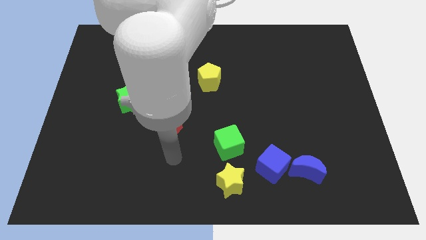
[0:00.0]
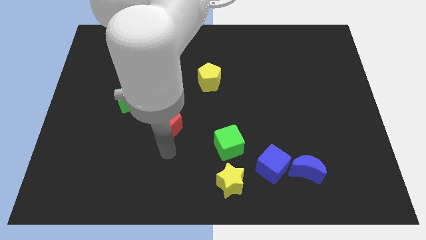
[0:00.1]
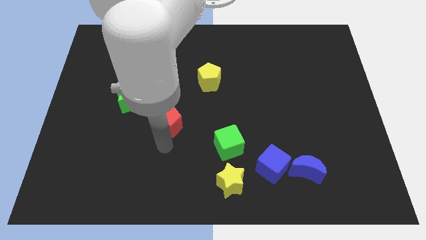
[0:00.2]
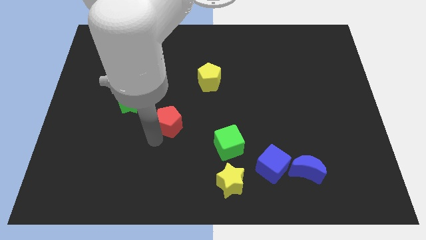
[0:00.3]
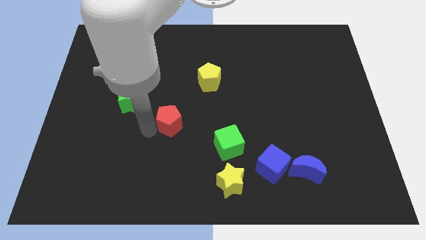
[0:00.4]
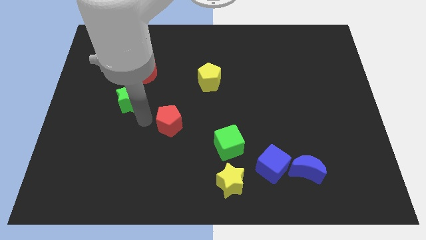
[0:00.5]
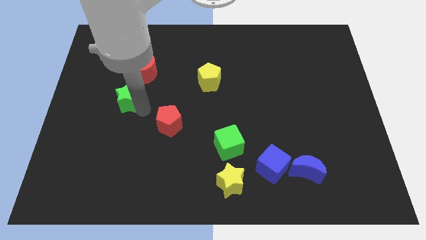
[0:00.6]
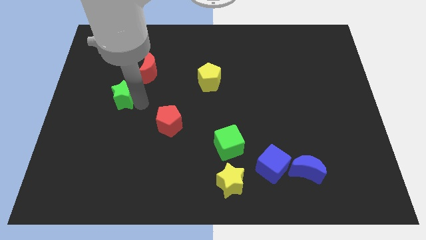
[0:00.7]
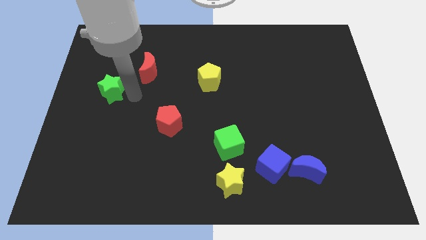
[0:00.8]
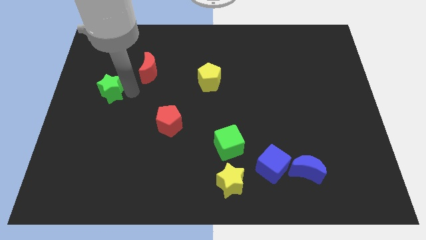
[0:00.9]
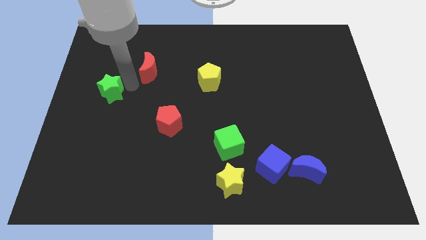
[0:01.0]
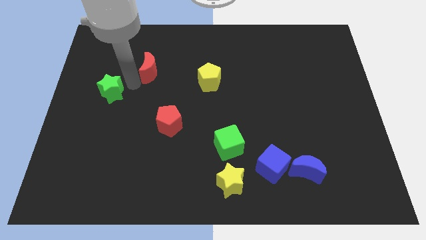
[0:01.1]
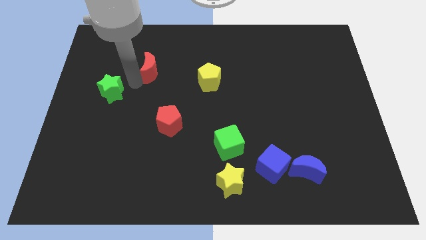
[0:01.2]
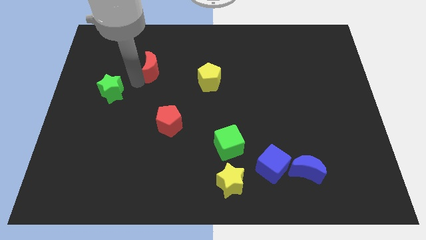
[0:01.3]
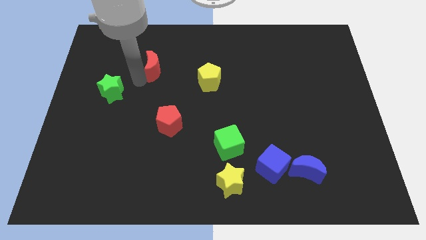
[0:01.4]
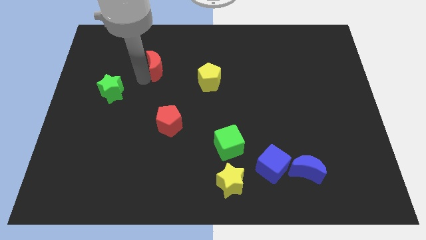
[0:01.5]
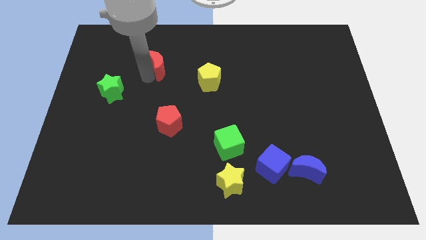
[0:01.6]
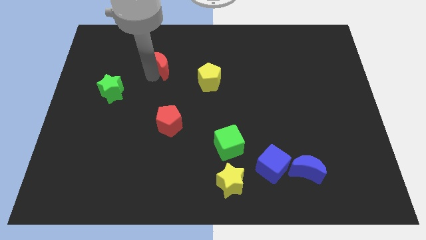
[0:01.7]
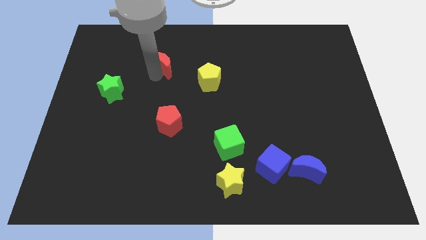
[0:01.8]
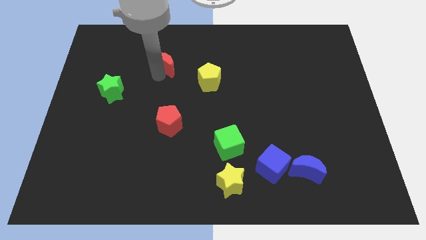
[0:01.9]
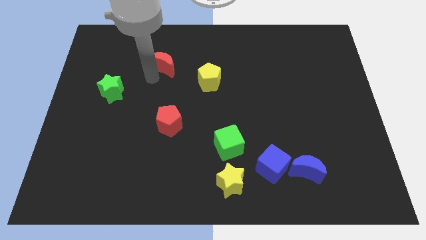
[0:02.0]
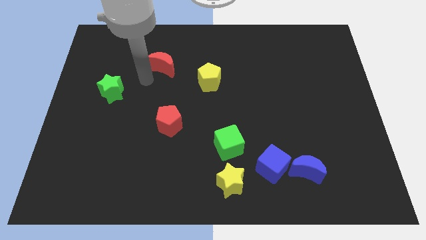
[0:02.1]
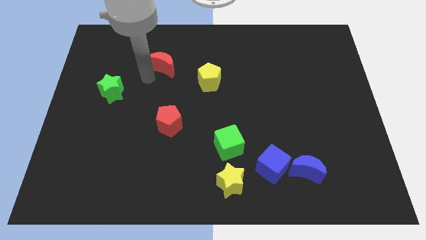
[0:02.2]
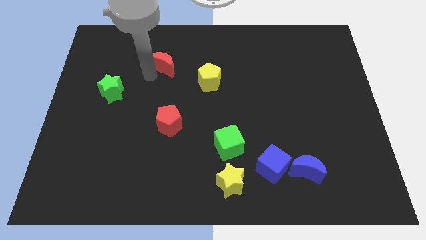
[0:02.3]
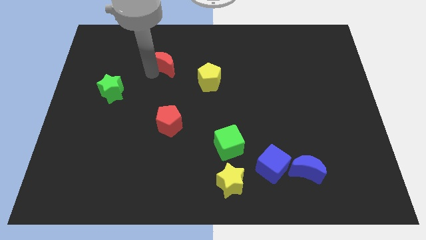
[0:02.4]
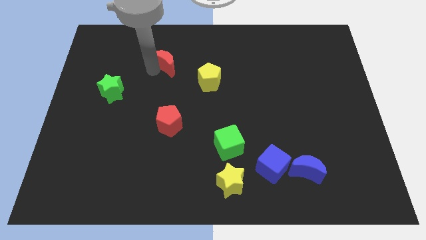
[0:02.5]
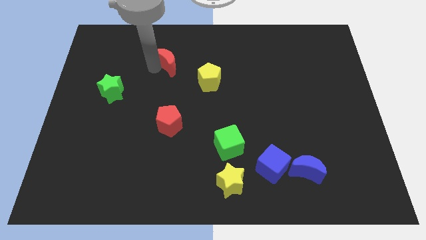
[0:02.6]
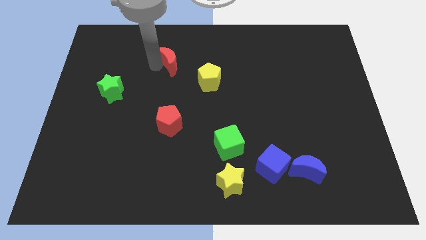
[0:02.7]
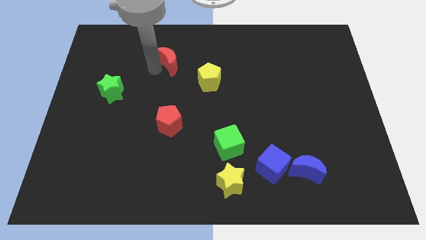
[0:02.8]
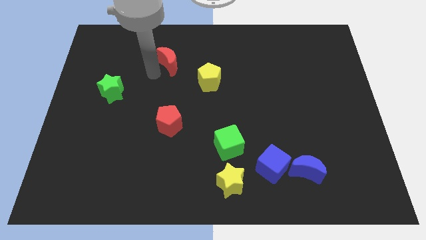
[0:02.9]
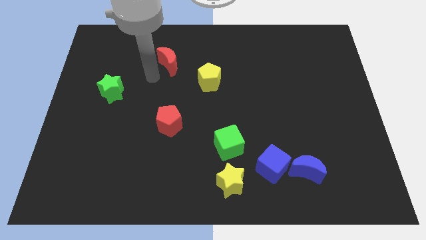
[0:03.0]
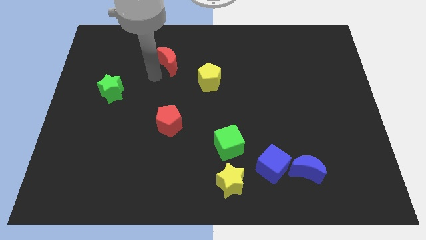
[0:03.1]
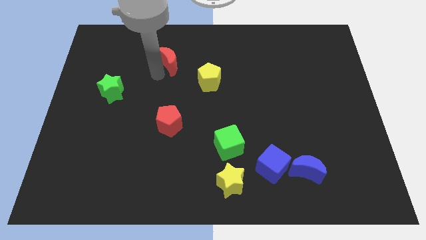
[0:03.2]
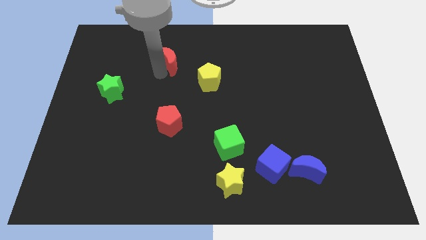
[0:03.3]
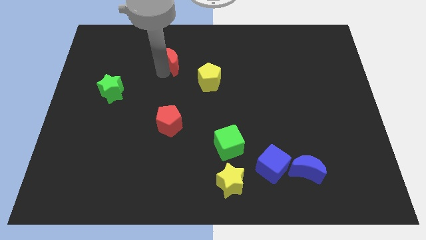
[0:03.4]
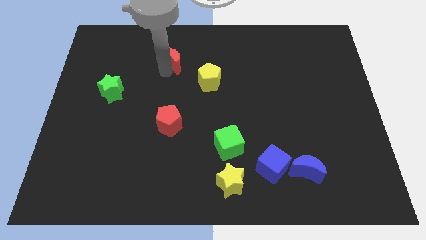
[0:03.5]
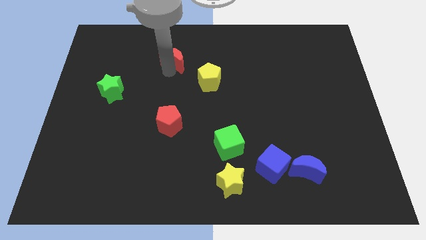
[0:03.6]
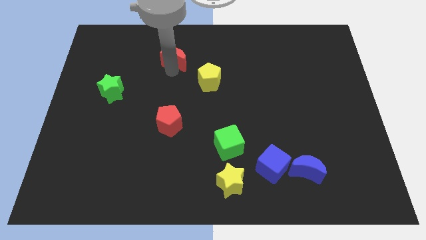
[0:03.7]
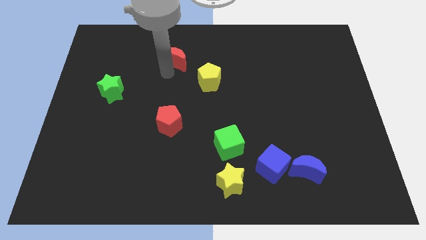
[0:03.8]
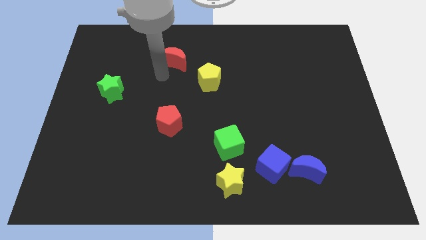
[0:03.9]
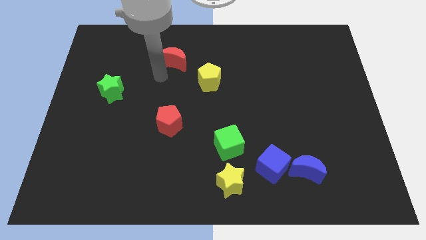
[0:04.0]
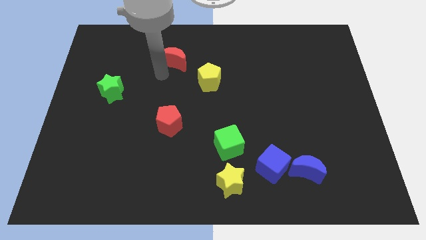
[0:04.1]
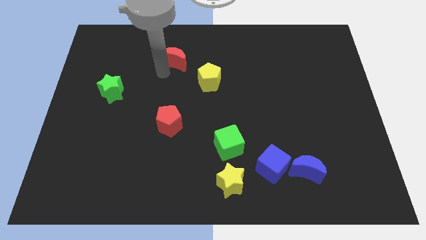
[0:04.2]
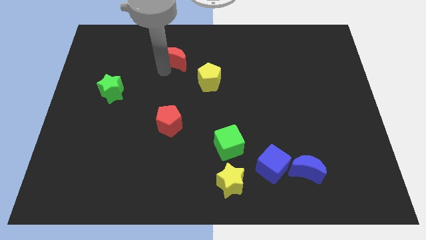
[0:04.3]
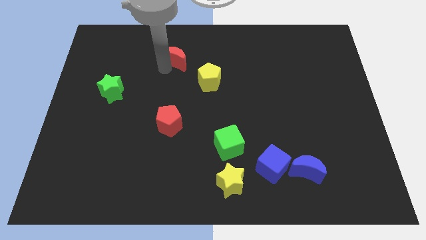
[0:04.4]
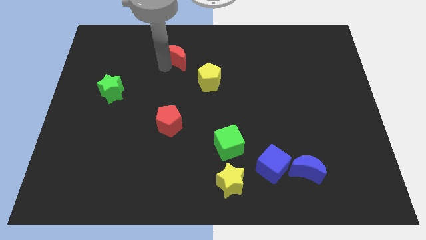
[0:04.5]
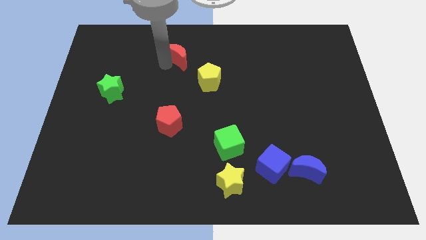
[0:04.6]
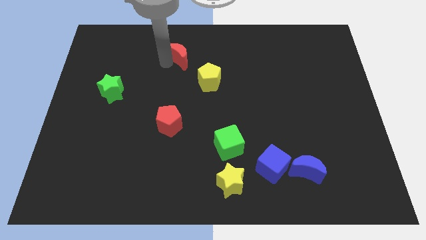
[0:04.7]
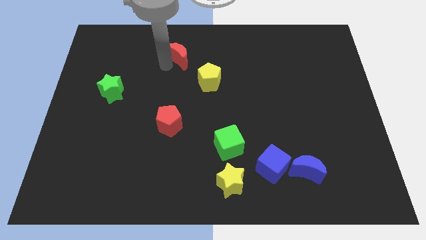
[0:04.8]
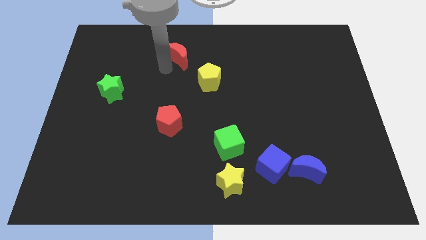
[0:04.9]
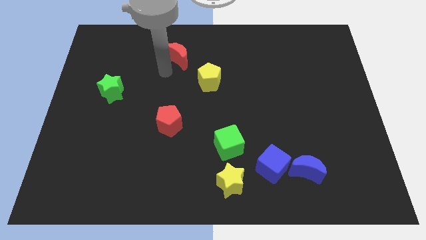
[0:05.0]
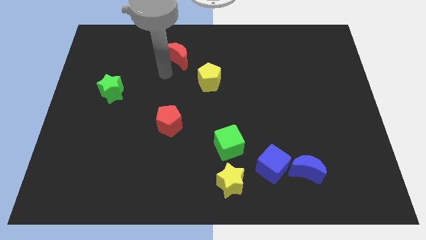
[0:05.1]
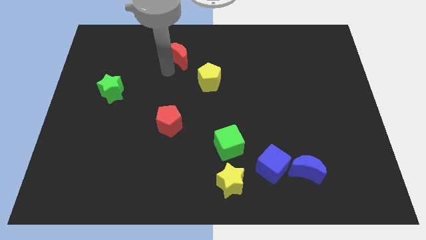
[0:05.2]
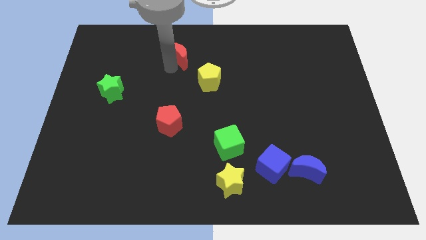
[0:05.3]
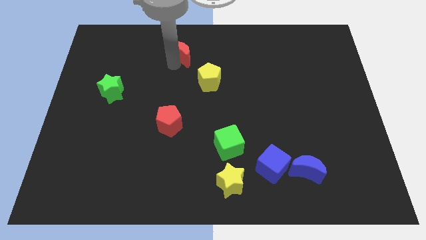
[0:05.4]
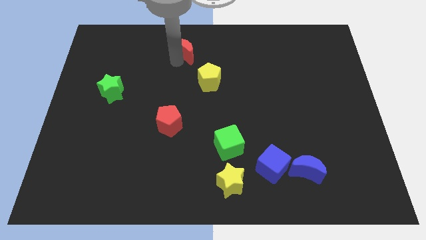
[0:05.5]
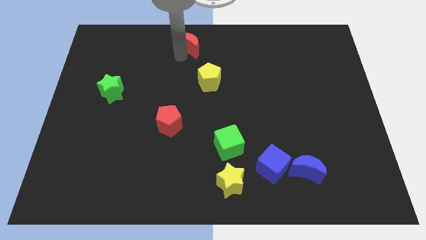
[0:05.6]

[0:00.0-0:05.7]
push the red moon to the towards your base
